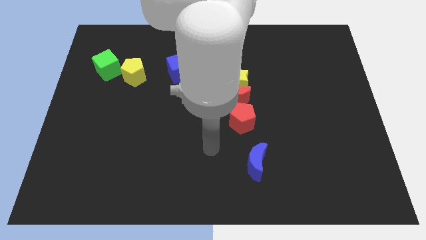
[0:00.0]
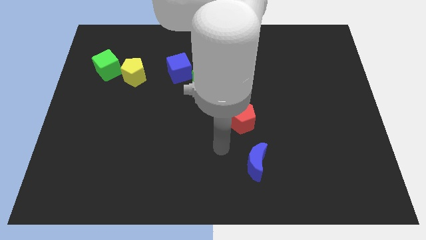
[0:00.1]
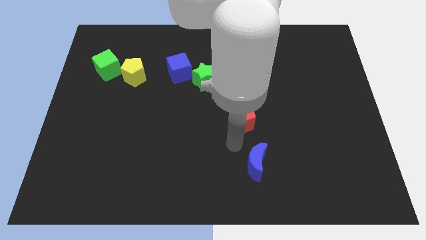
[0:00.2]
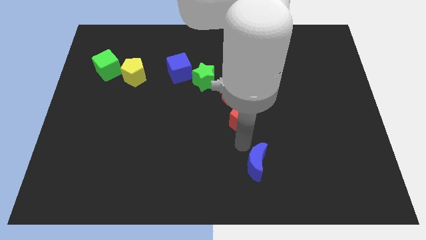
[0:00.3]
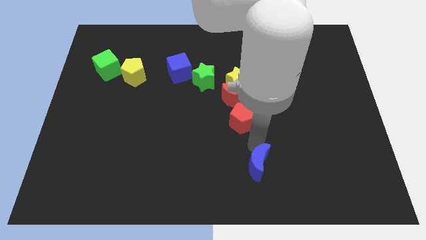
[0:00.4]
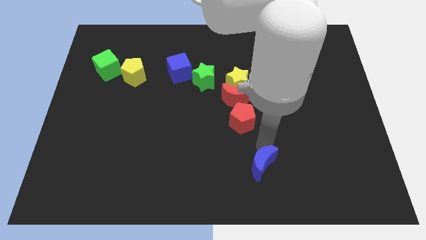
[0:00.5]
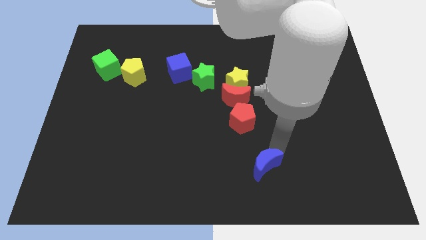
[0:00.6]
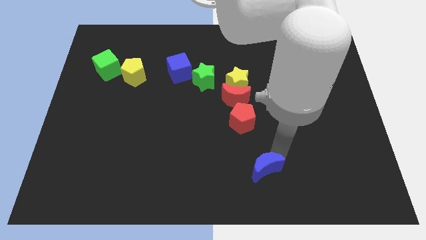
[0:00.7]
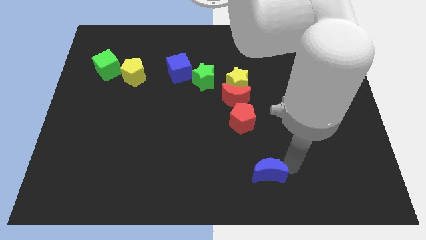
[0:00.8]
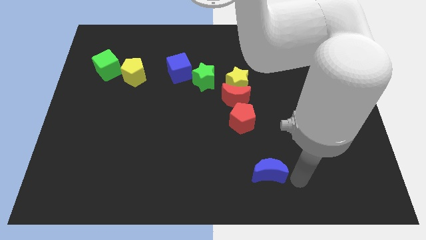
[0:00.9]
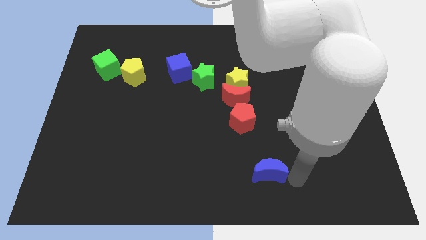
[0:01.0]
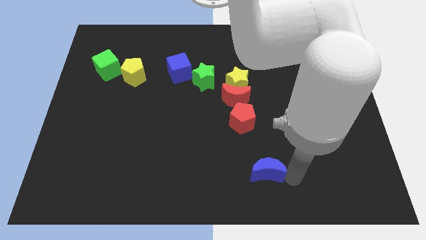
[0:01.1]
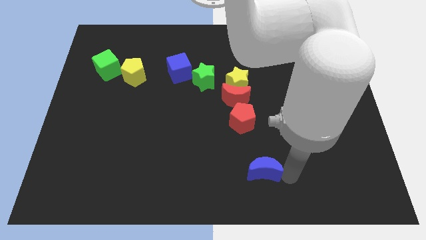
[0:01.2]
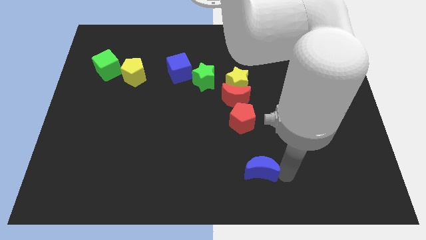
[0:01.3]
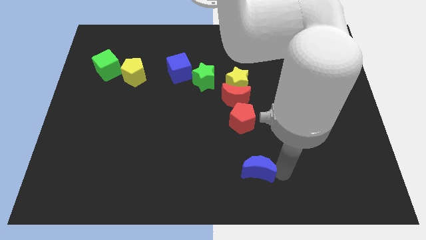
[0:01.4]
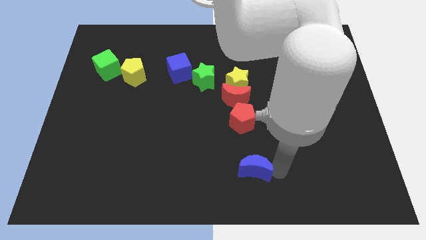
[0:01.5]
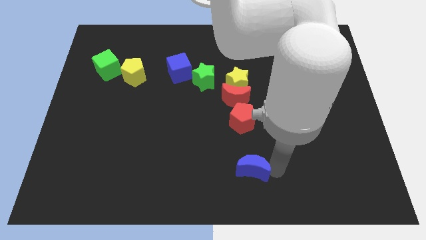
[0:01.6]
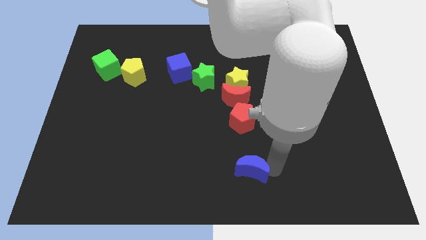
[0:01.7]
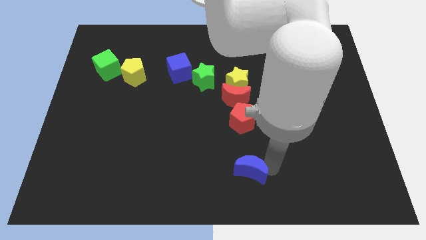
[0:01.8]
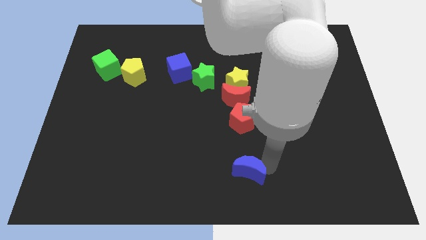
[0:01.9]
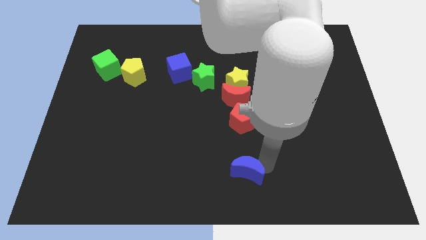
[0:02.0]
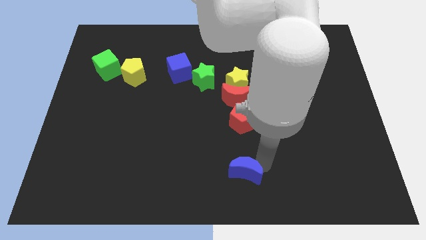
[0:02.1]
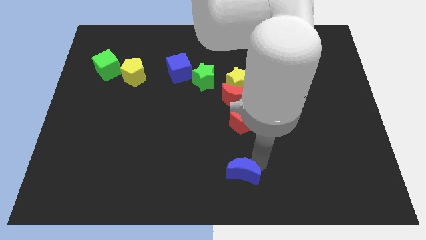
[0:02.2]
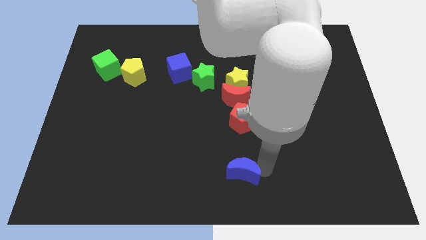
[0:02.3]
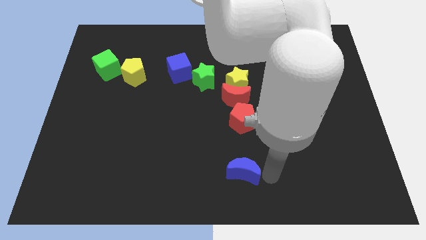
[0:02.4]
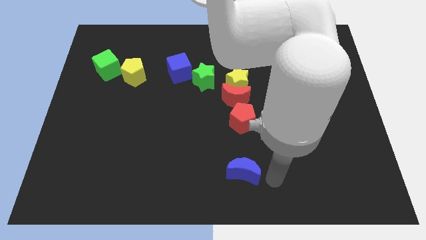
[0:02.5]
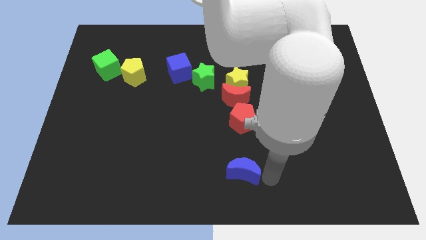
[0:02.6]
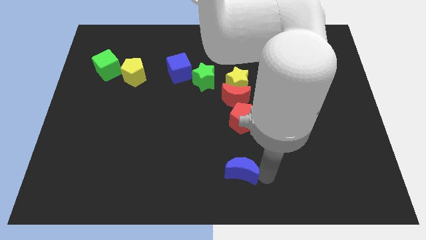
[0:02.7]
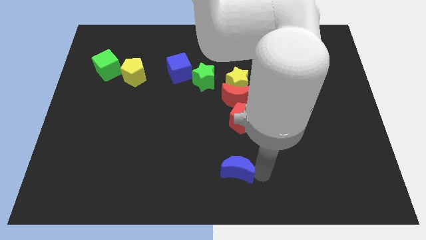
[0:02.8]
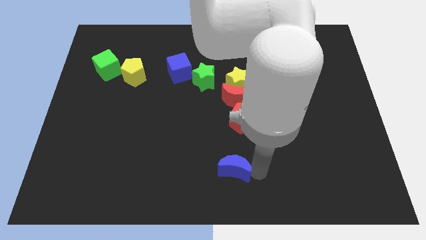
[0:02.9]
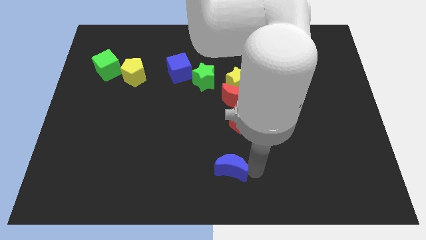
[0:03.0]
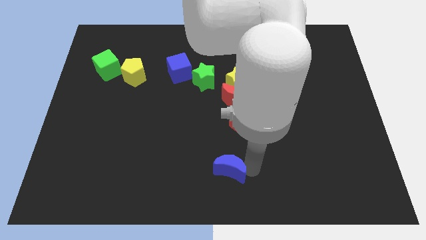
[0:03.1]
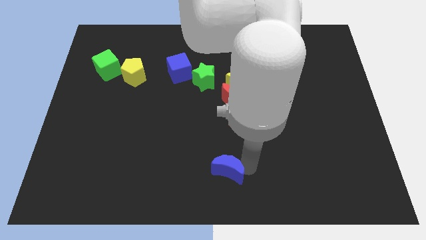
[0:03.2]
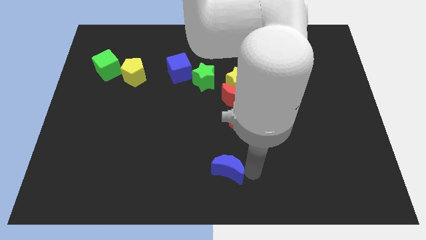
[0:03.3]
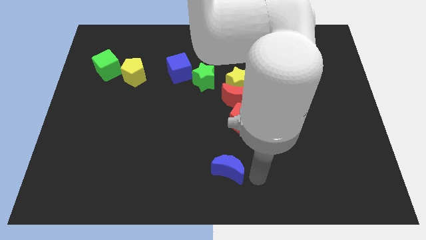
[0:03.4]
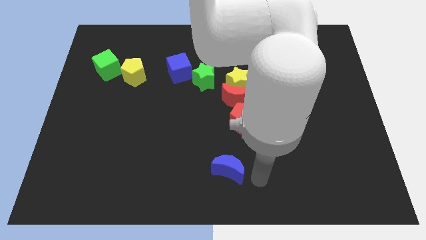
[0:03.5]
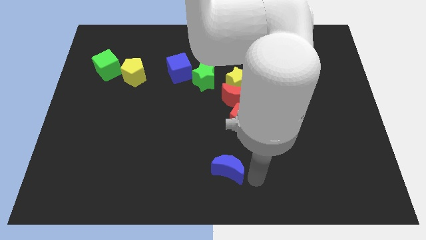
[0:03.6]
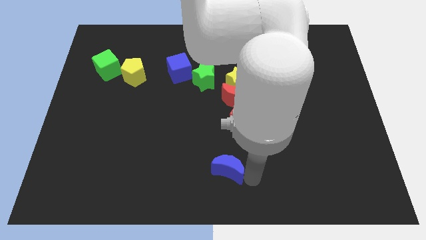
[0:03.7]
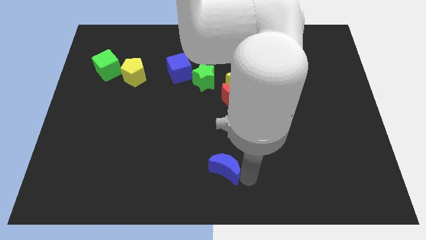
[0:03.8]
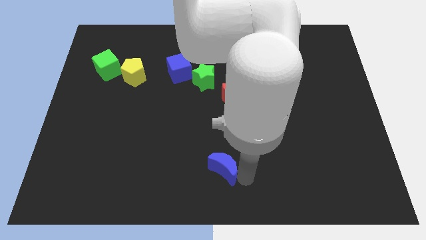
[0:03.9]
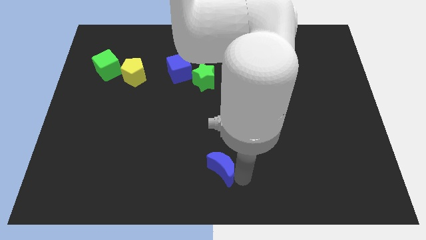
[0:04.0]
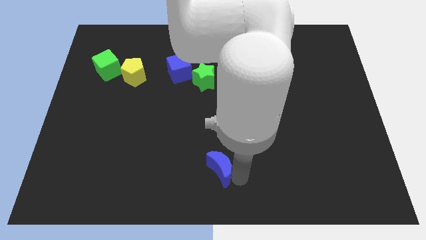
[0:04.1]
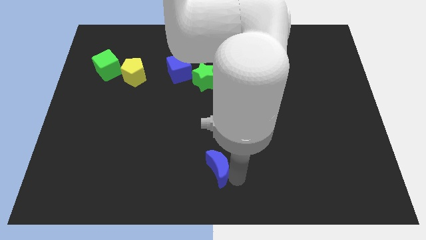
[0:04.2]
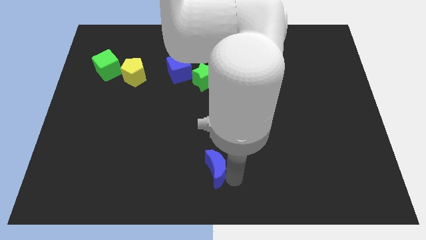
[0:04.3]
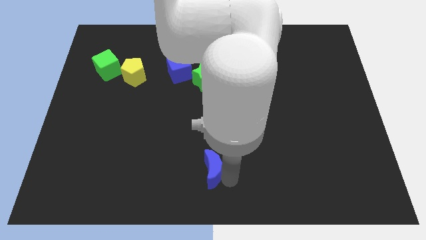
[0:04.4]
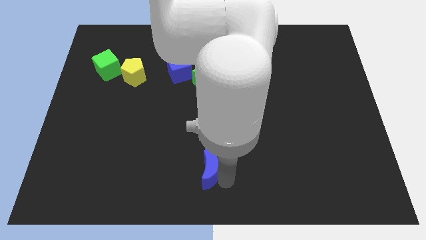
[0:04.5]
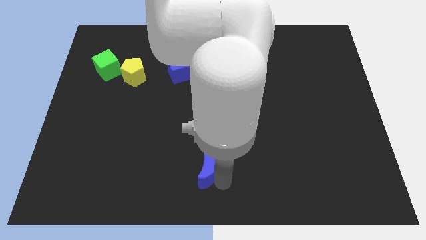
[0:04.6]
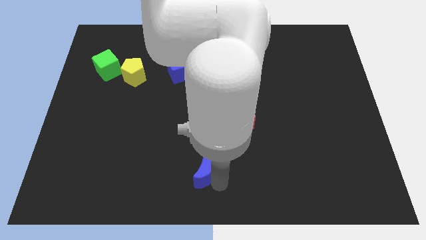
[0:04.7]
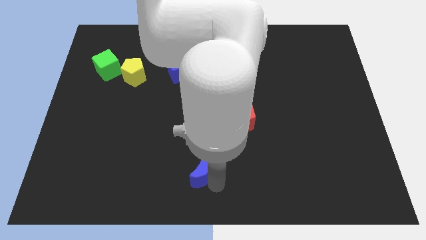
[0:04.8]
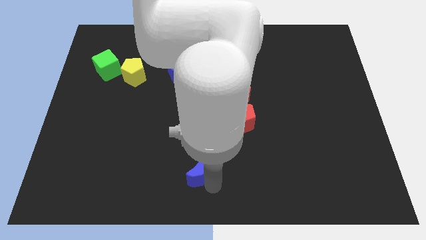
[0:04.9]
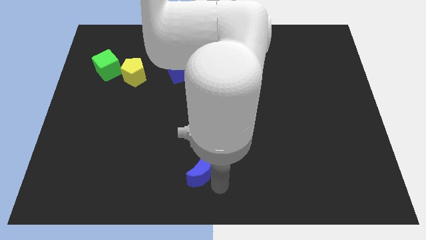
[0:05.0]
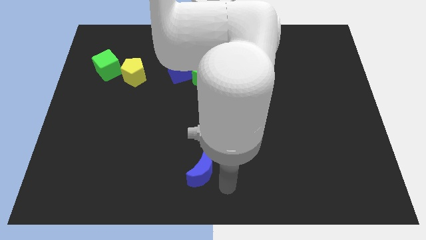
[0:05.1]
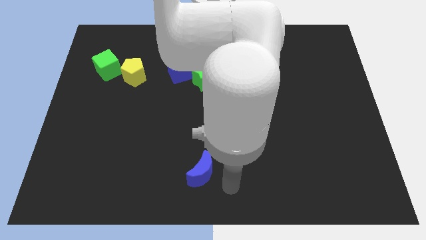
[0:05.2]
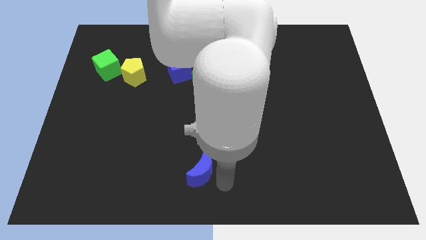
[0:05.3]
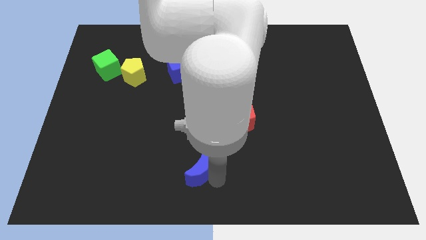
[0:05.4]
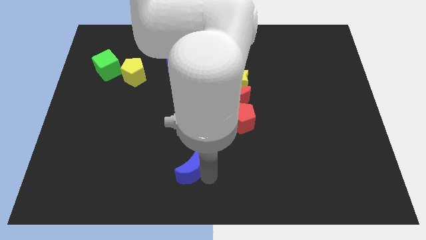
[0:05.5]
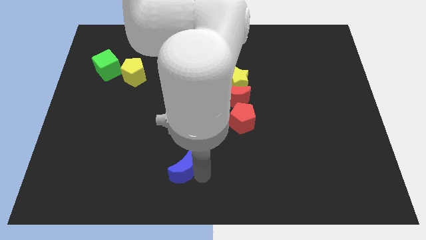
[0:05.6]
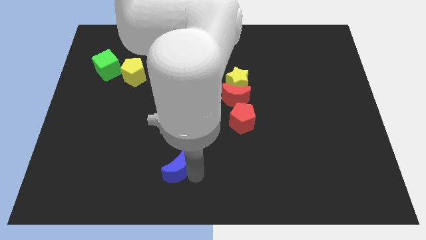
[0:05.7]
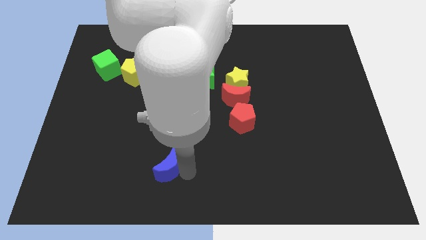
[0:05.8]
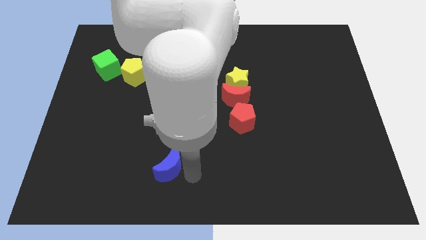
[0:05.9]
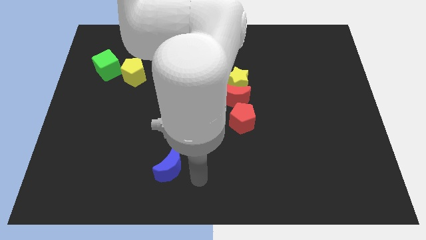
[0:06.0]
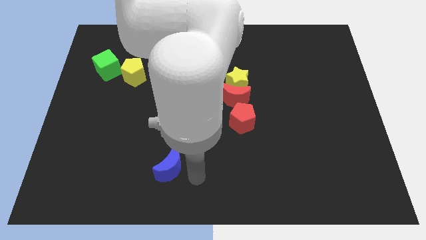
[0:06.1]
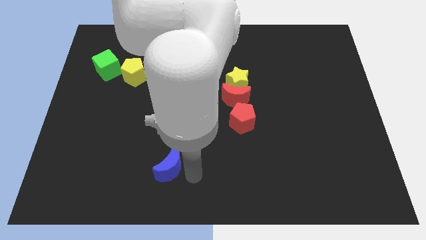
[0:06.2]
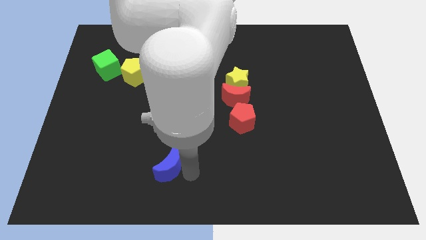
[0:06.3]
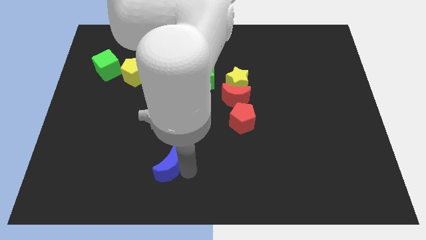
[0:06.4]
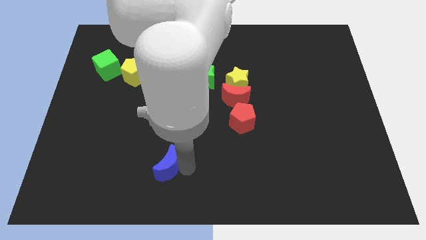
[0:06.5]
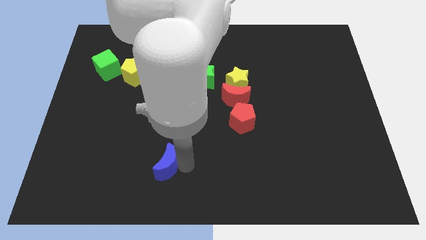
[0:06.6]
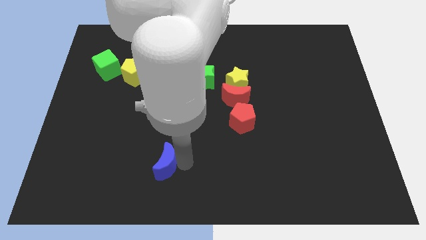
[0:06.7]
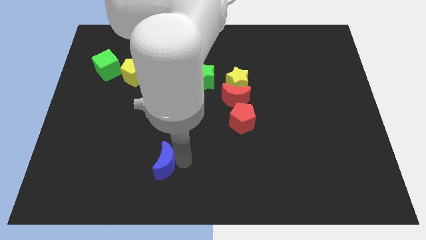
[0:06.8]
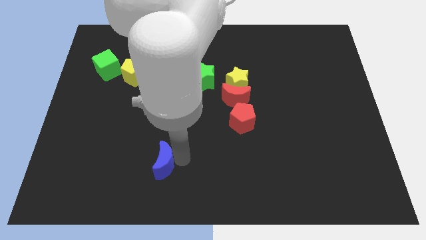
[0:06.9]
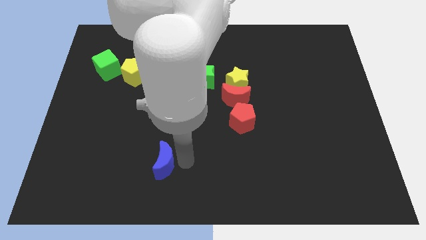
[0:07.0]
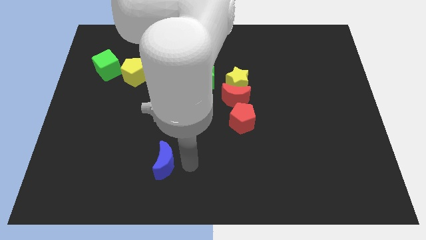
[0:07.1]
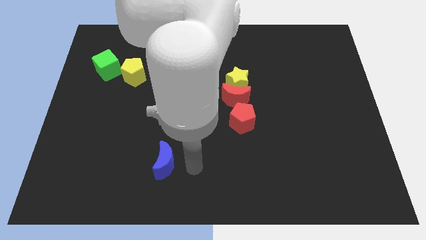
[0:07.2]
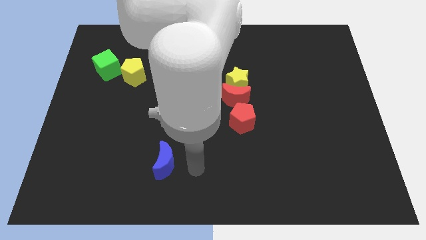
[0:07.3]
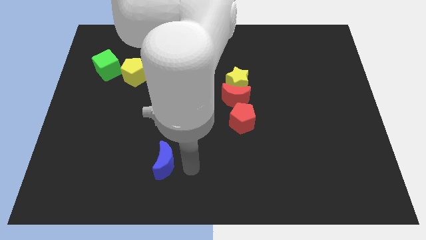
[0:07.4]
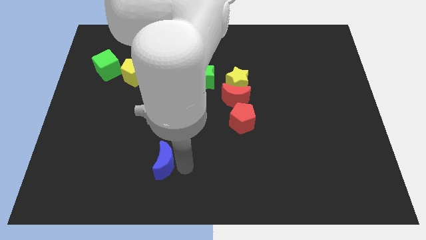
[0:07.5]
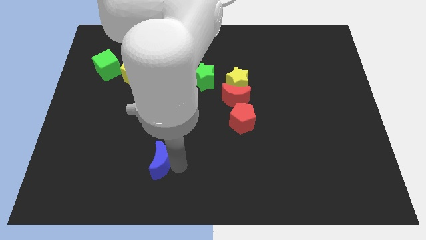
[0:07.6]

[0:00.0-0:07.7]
push the blue moon left
